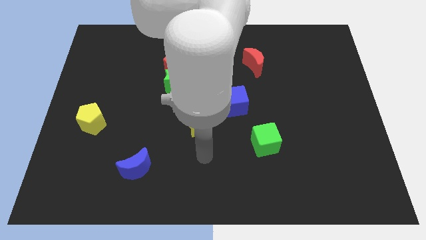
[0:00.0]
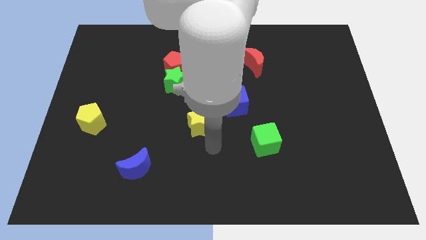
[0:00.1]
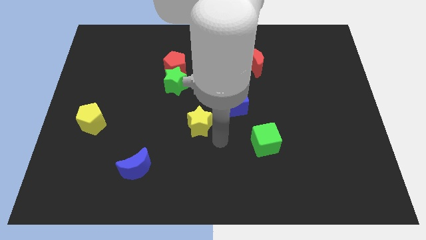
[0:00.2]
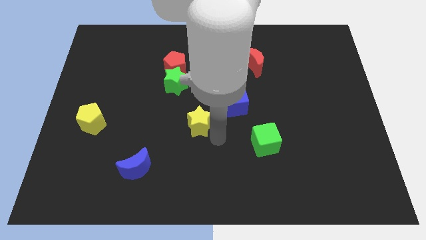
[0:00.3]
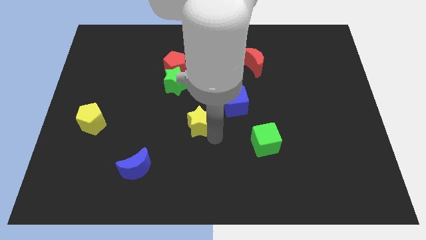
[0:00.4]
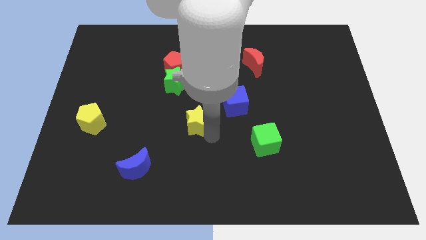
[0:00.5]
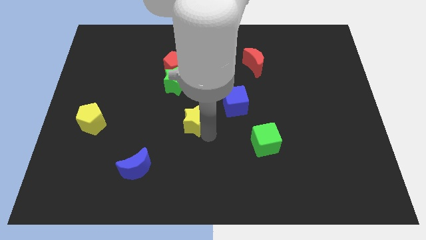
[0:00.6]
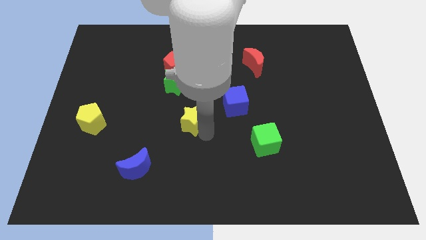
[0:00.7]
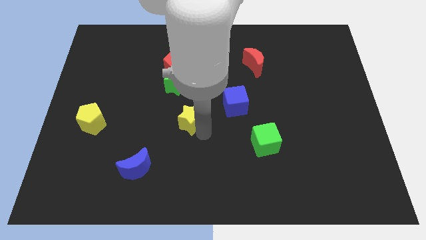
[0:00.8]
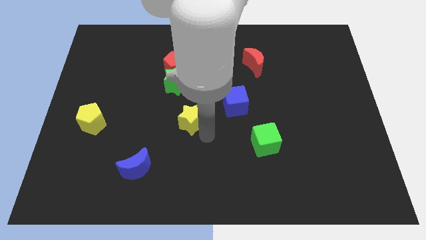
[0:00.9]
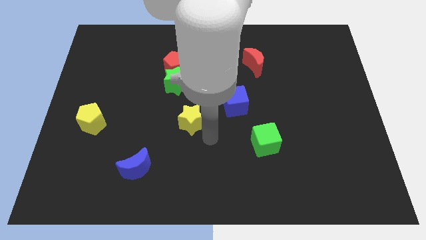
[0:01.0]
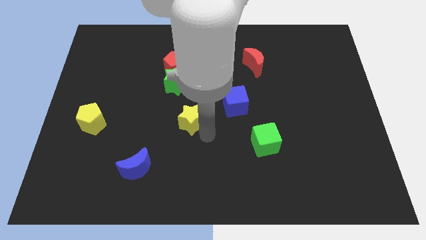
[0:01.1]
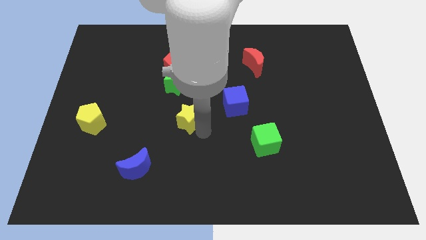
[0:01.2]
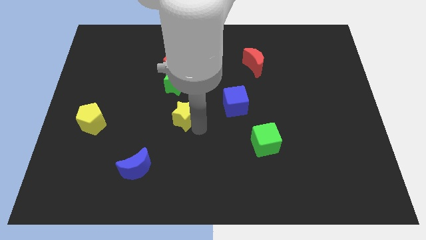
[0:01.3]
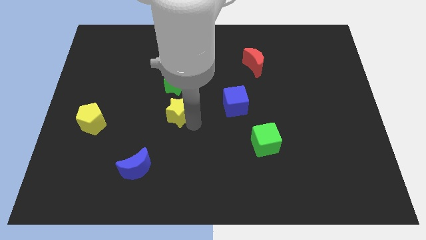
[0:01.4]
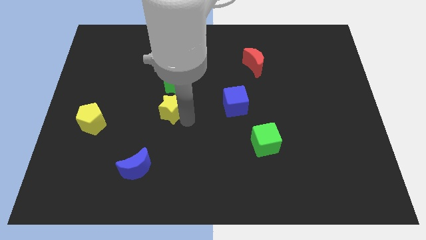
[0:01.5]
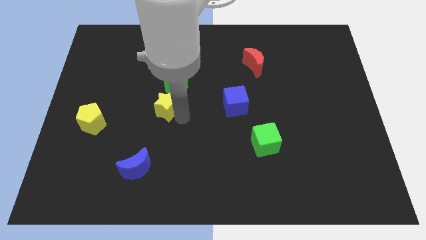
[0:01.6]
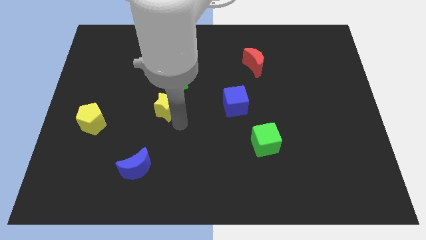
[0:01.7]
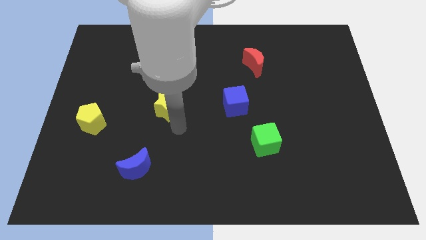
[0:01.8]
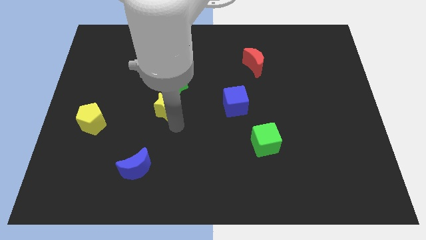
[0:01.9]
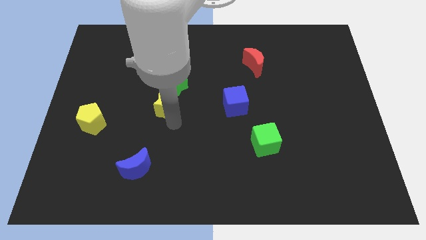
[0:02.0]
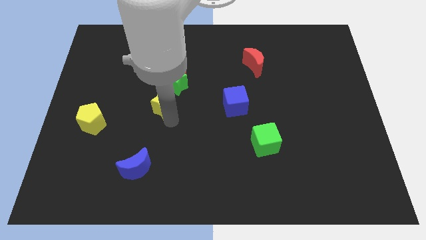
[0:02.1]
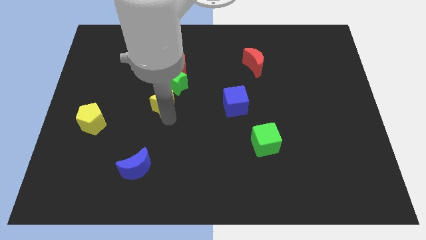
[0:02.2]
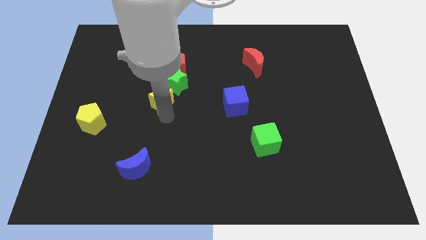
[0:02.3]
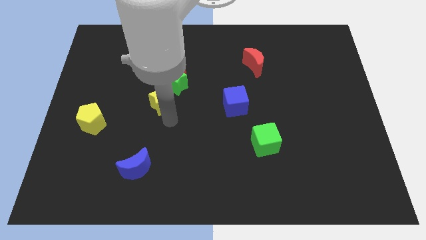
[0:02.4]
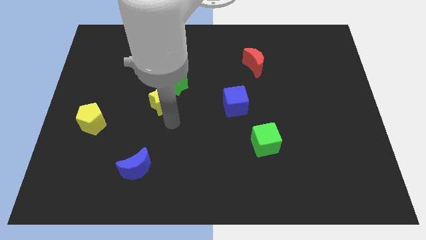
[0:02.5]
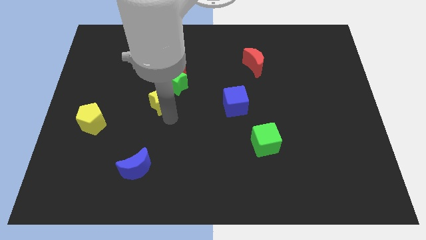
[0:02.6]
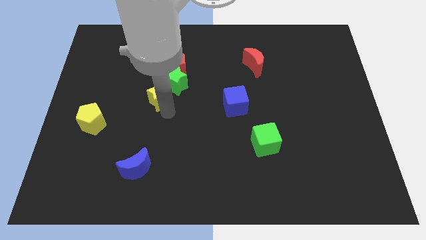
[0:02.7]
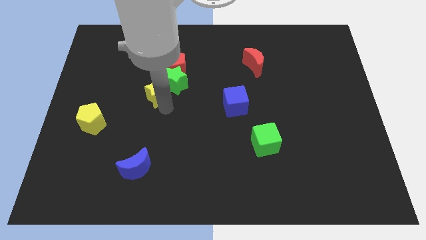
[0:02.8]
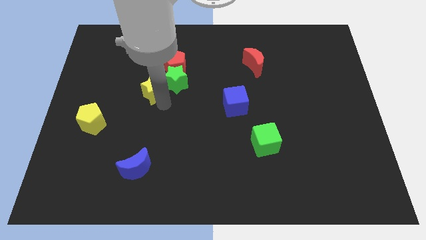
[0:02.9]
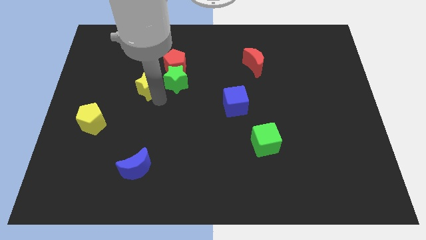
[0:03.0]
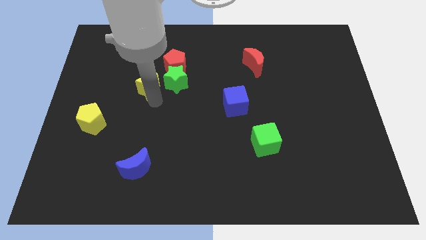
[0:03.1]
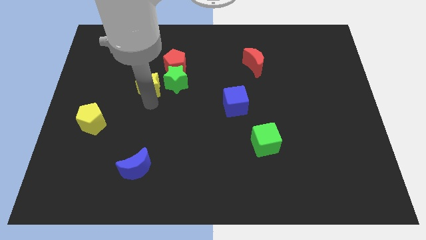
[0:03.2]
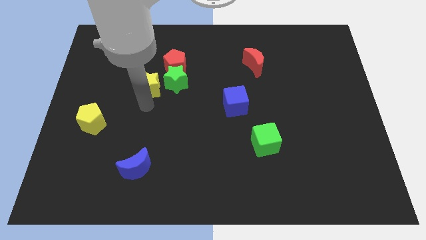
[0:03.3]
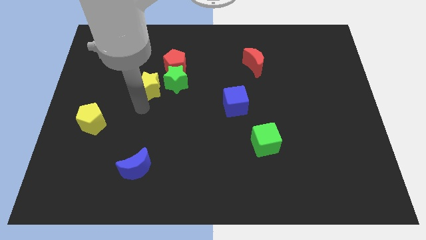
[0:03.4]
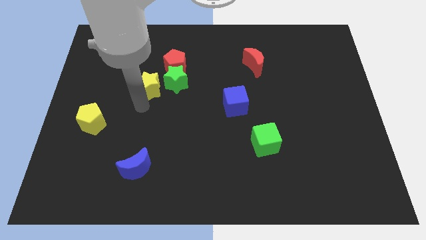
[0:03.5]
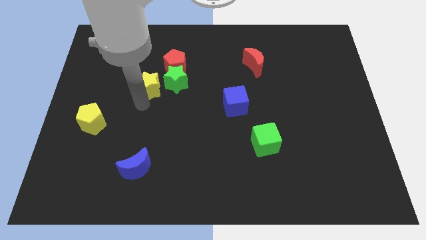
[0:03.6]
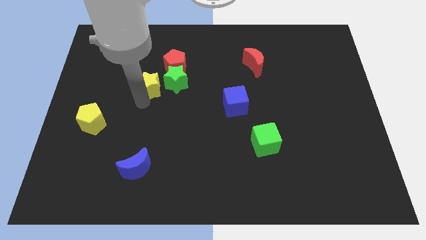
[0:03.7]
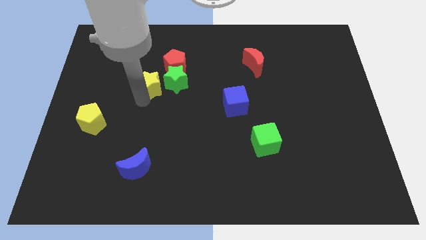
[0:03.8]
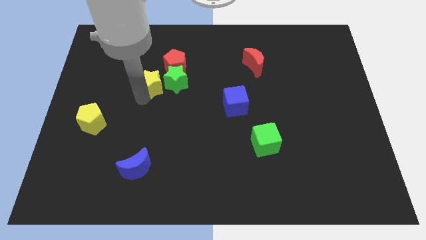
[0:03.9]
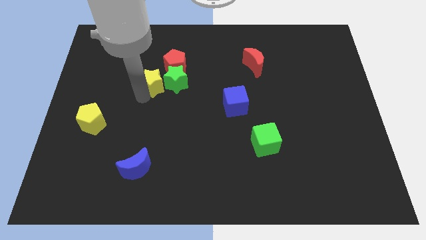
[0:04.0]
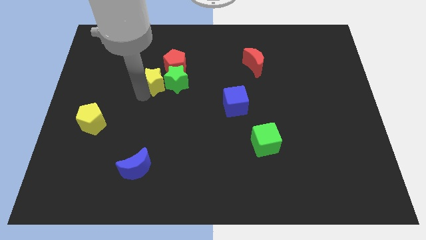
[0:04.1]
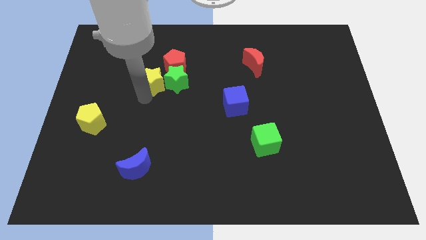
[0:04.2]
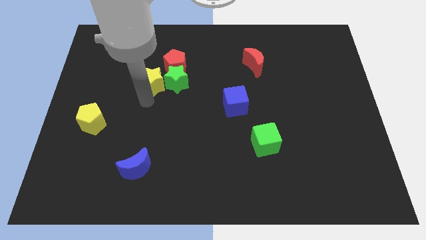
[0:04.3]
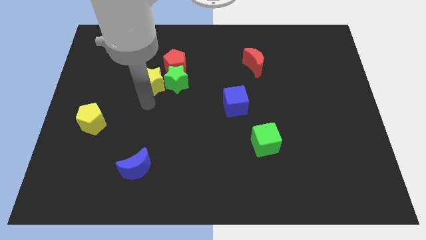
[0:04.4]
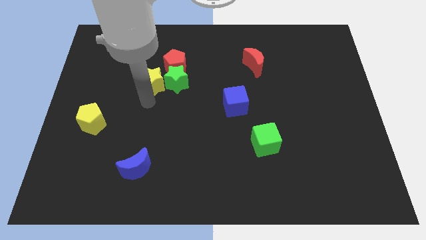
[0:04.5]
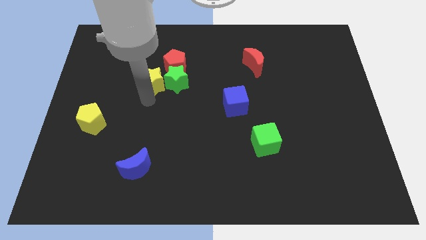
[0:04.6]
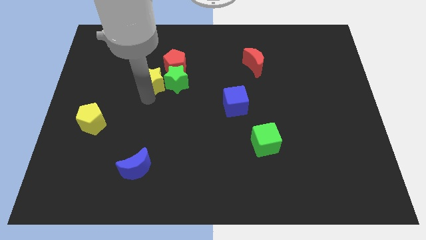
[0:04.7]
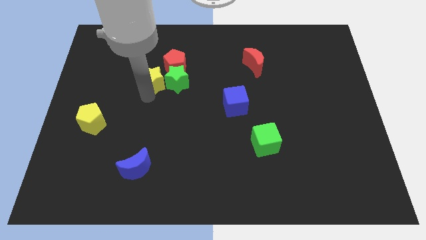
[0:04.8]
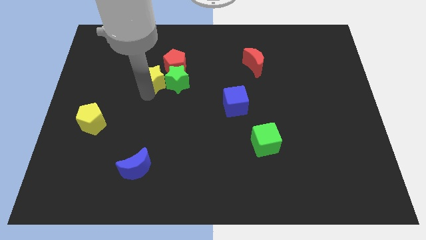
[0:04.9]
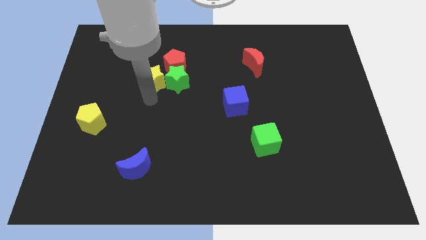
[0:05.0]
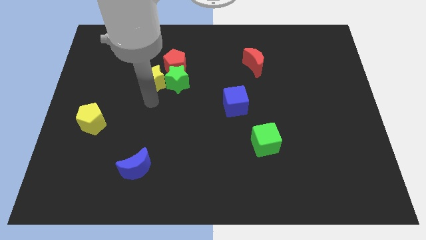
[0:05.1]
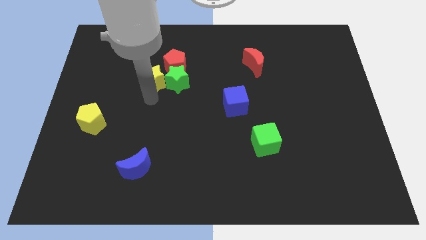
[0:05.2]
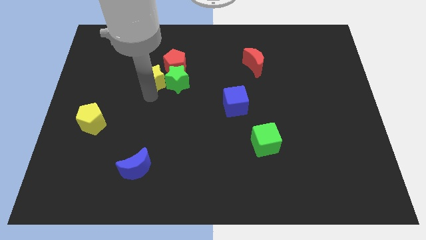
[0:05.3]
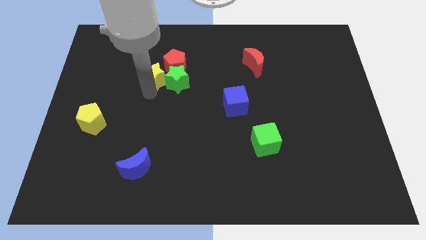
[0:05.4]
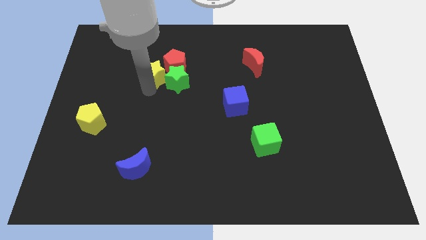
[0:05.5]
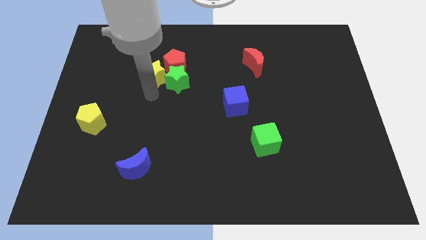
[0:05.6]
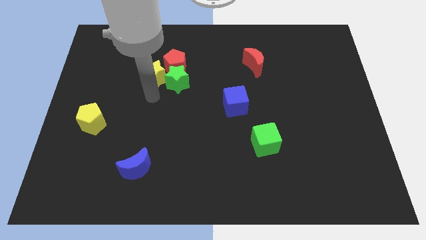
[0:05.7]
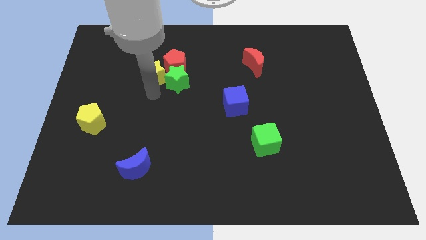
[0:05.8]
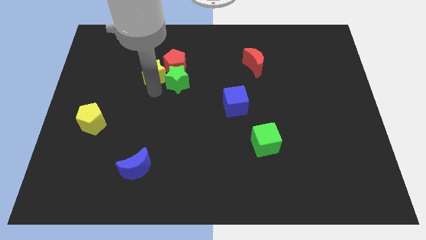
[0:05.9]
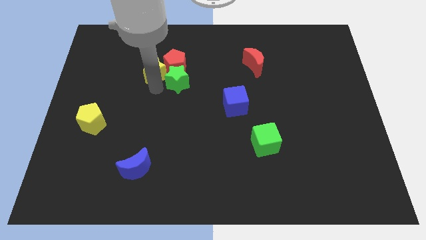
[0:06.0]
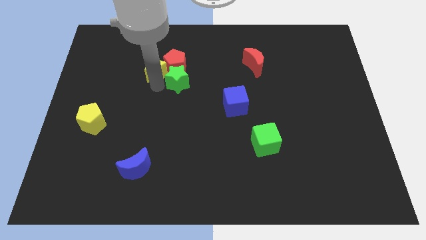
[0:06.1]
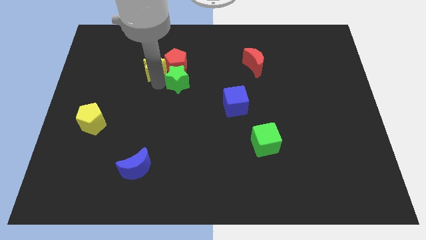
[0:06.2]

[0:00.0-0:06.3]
move the yellow star to the top left of the red pentagon

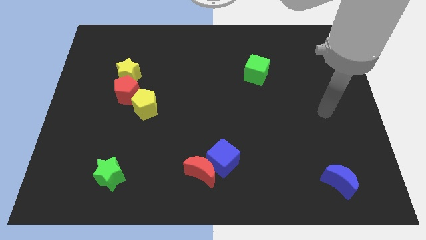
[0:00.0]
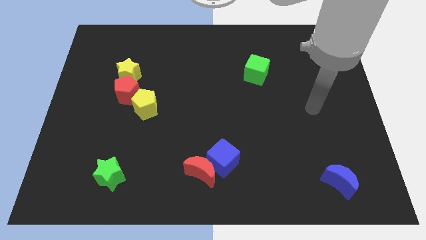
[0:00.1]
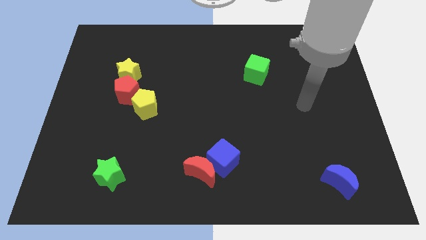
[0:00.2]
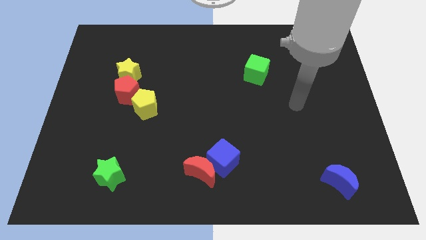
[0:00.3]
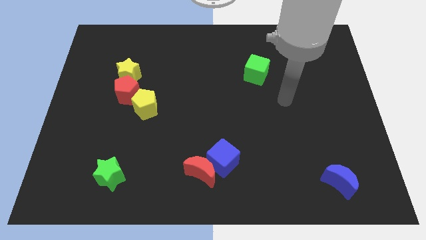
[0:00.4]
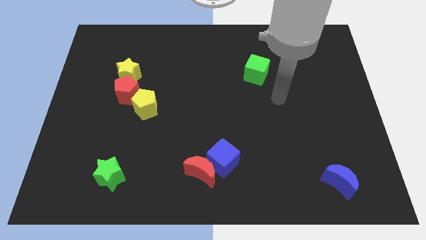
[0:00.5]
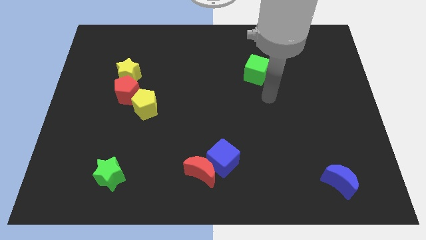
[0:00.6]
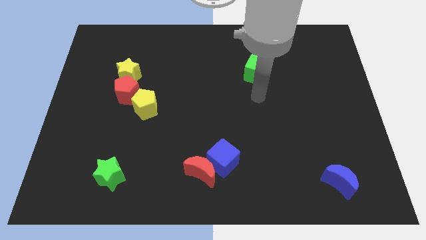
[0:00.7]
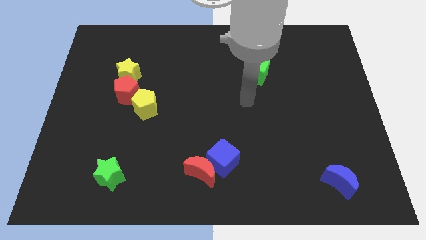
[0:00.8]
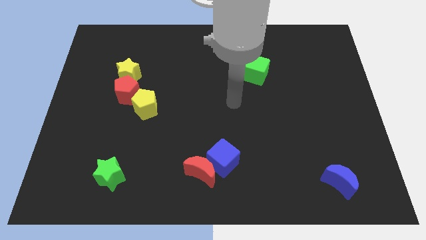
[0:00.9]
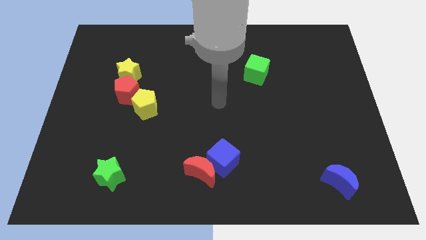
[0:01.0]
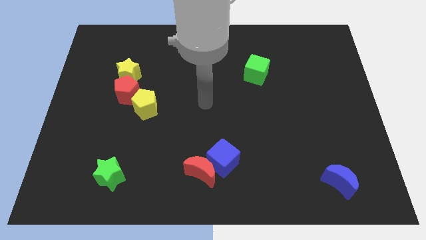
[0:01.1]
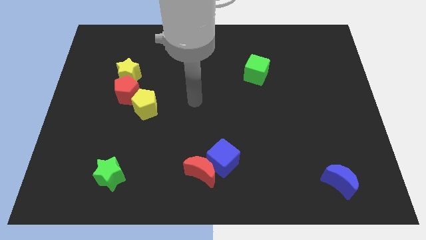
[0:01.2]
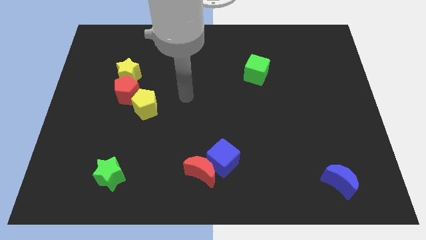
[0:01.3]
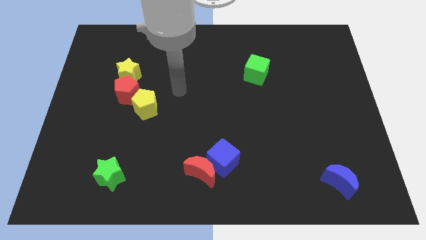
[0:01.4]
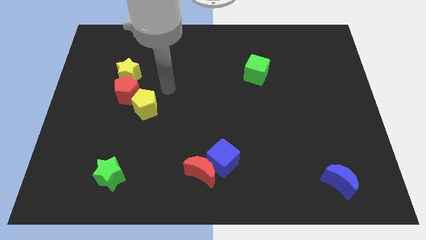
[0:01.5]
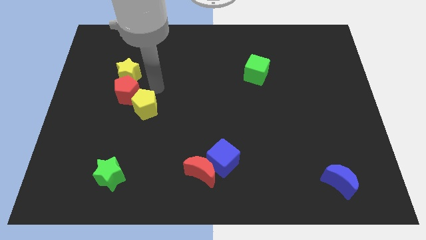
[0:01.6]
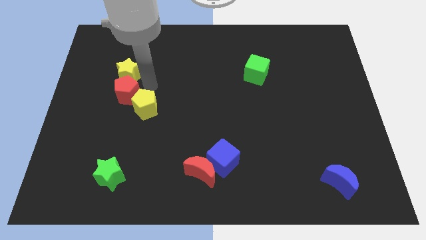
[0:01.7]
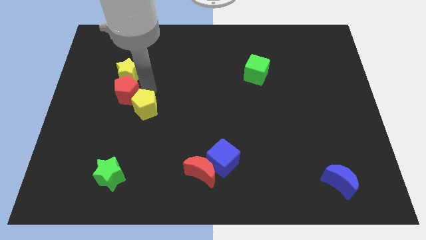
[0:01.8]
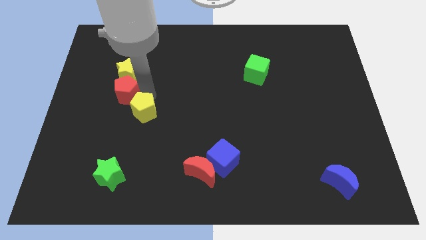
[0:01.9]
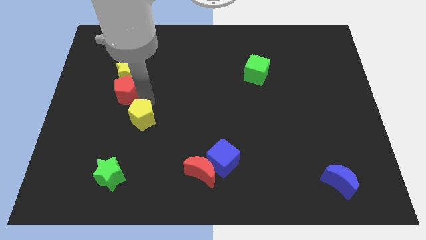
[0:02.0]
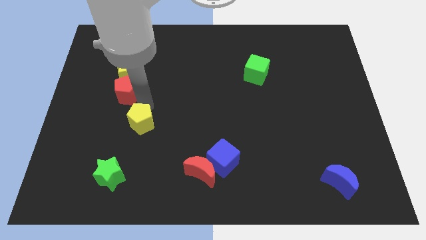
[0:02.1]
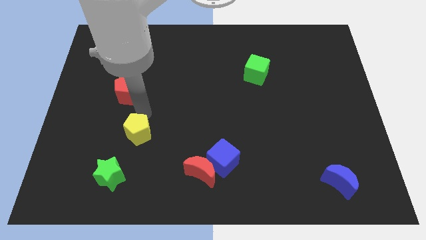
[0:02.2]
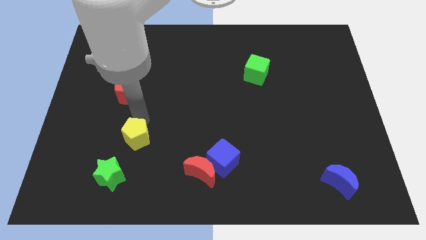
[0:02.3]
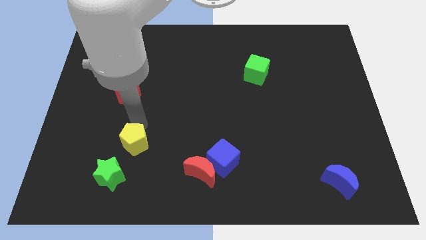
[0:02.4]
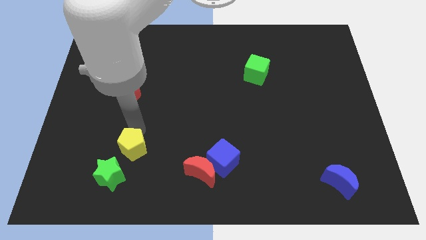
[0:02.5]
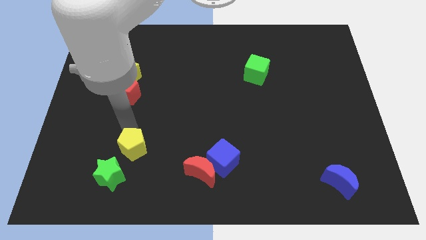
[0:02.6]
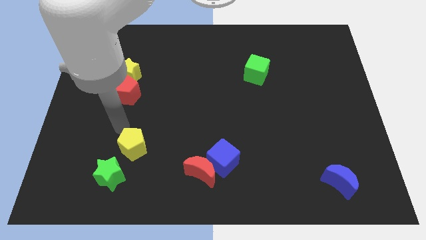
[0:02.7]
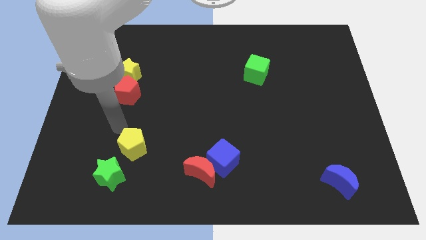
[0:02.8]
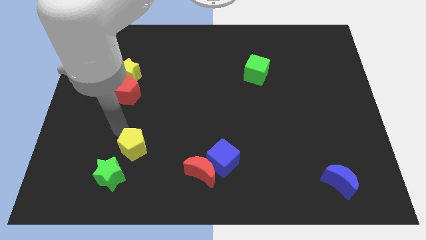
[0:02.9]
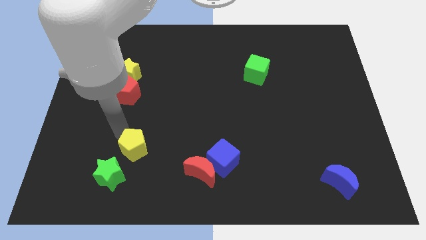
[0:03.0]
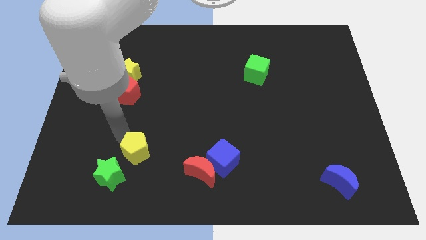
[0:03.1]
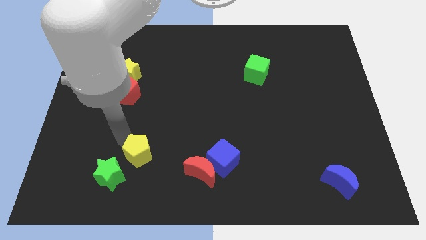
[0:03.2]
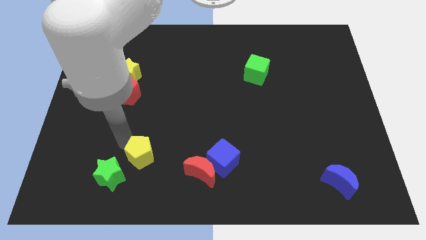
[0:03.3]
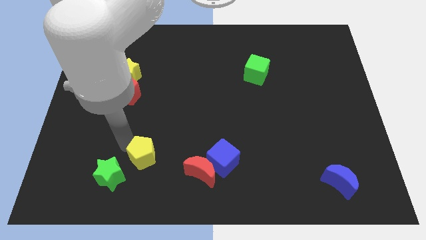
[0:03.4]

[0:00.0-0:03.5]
move the yellow pentagon just right of the green star
